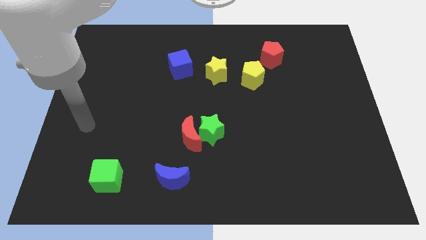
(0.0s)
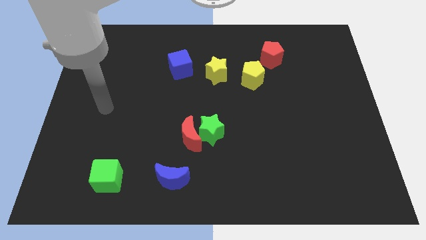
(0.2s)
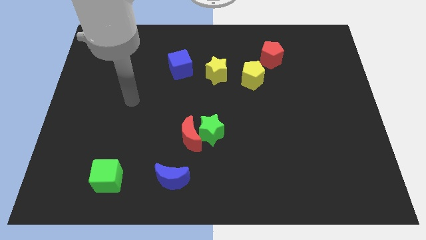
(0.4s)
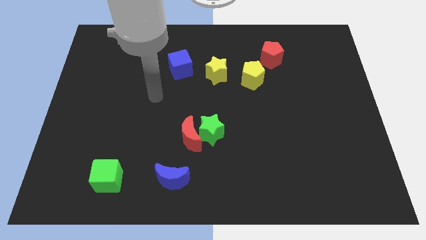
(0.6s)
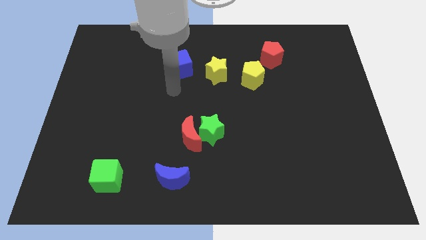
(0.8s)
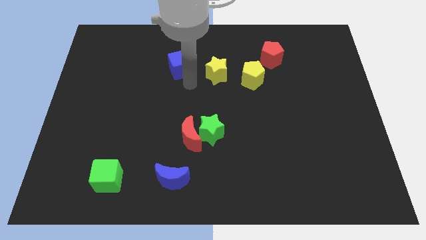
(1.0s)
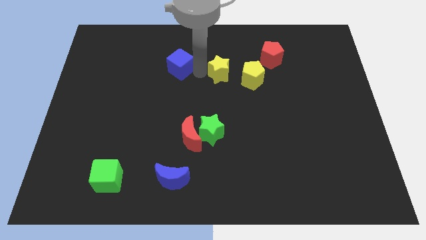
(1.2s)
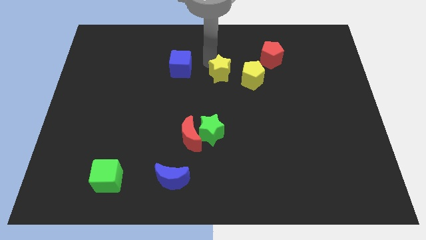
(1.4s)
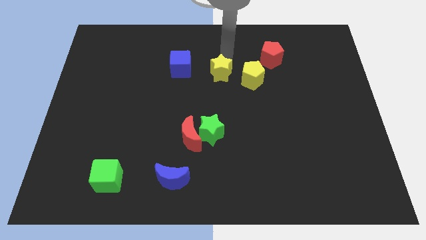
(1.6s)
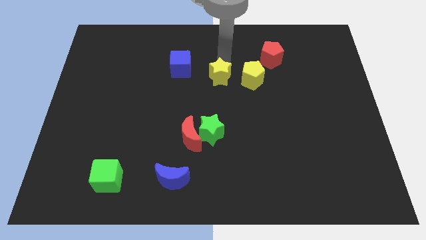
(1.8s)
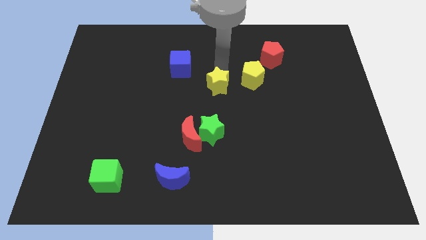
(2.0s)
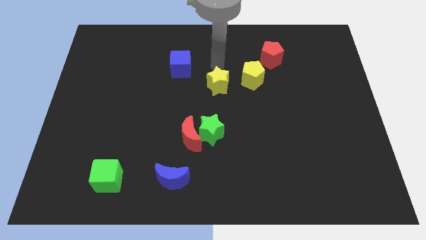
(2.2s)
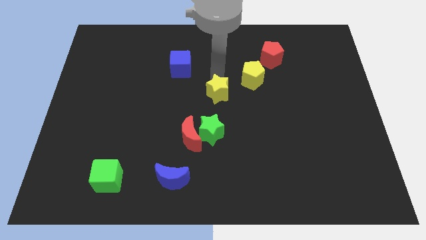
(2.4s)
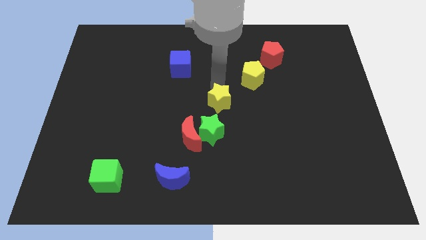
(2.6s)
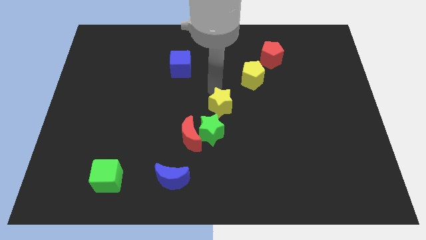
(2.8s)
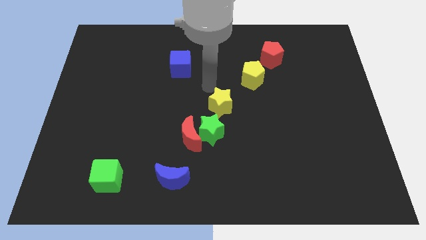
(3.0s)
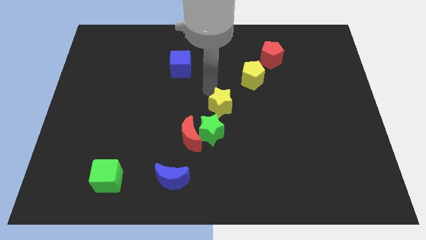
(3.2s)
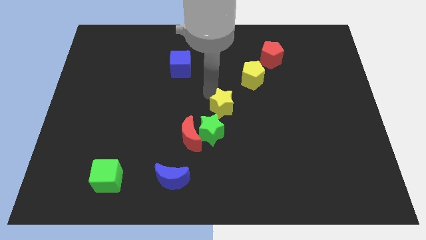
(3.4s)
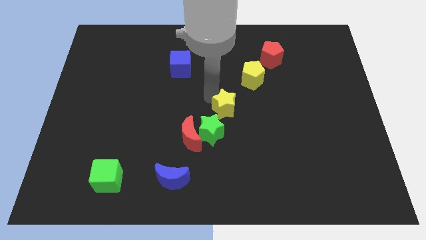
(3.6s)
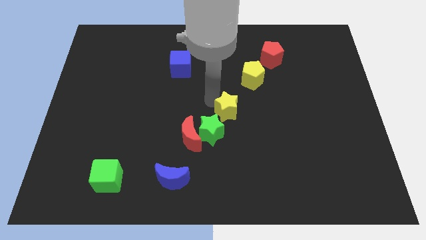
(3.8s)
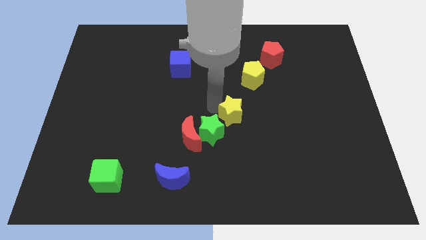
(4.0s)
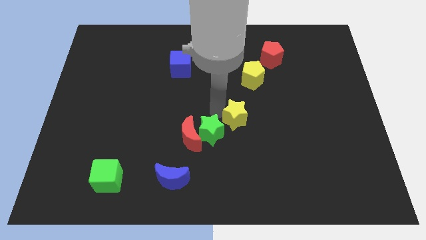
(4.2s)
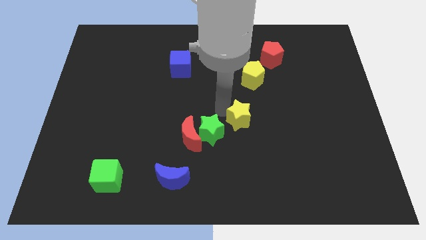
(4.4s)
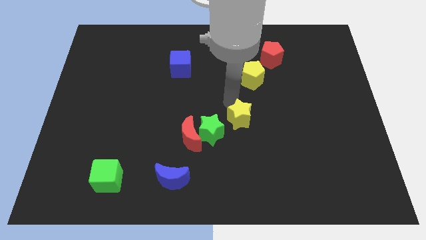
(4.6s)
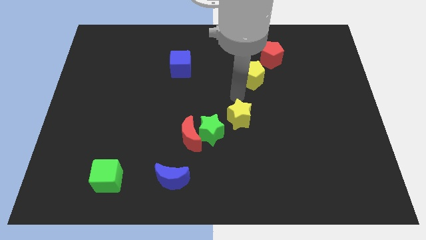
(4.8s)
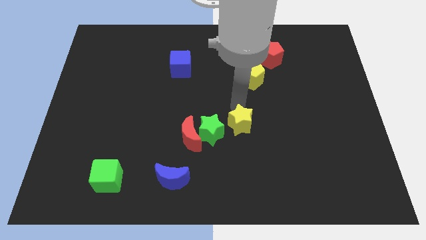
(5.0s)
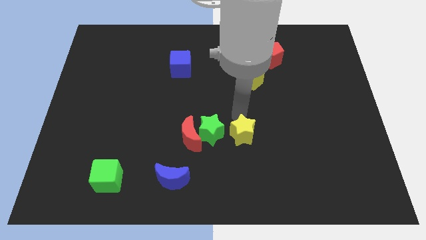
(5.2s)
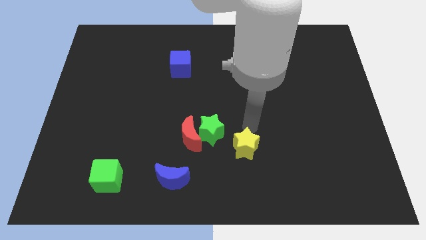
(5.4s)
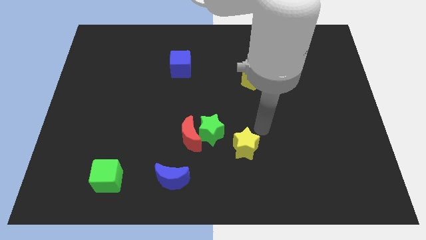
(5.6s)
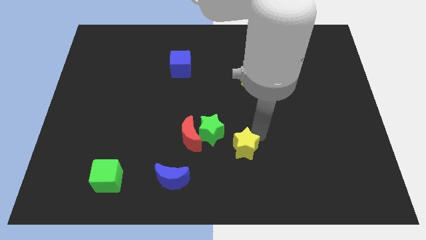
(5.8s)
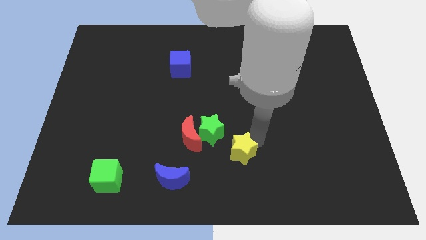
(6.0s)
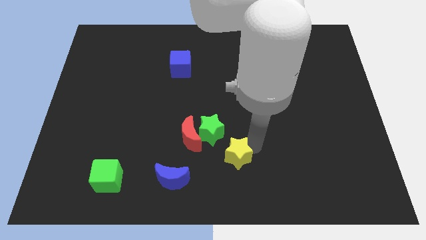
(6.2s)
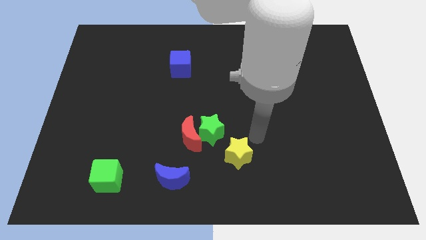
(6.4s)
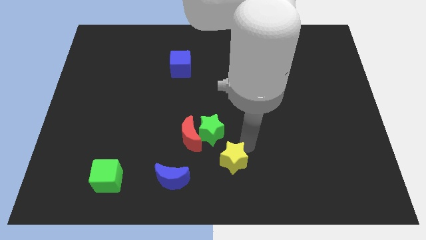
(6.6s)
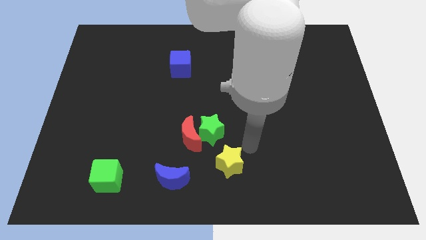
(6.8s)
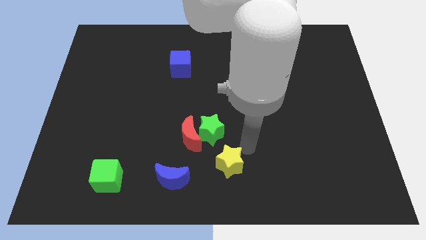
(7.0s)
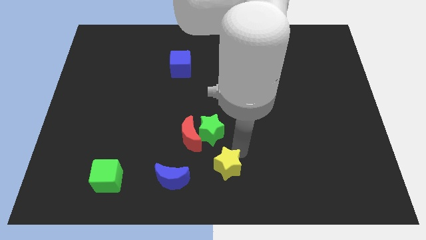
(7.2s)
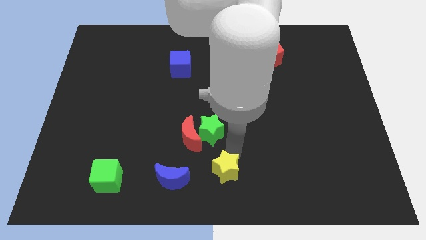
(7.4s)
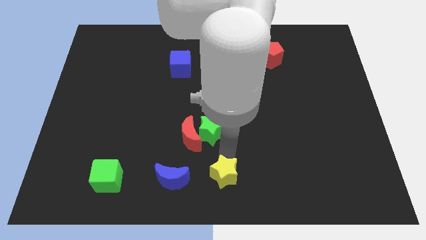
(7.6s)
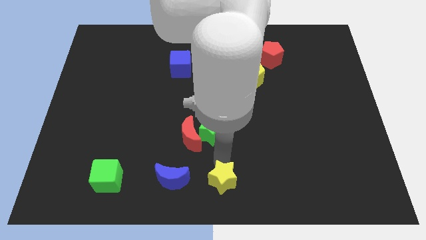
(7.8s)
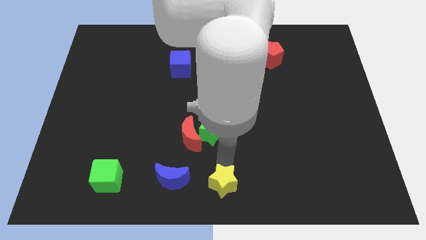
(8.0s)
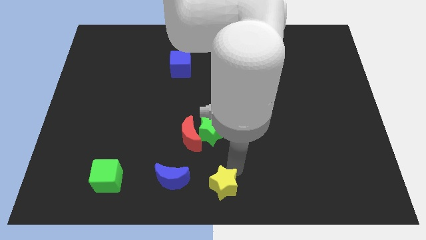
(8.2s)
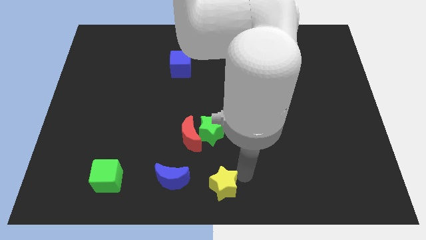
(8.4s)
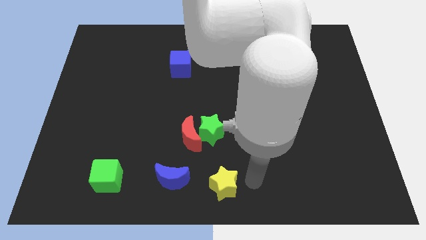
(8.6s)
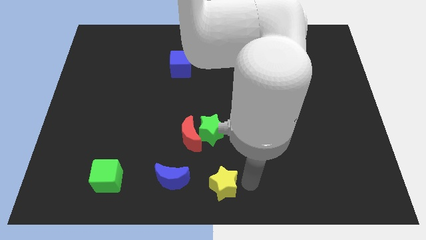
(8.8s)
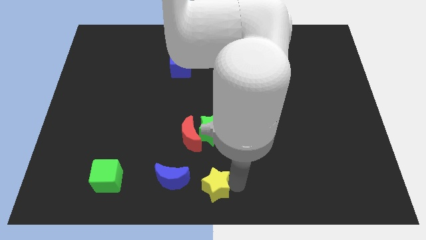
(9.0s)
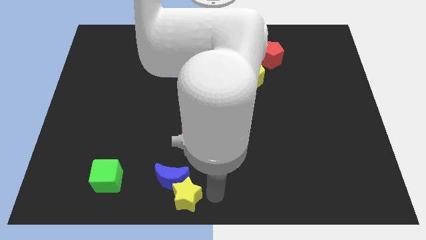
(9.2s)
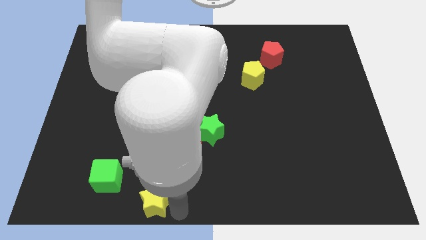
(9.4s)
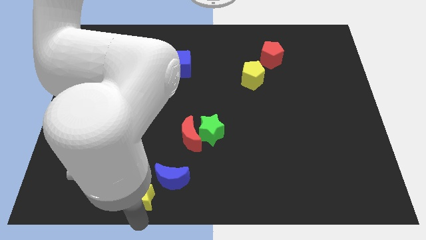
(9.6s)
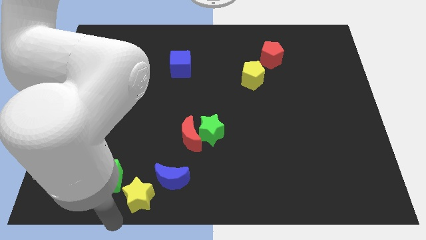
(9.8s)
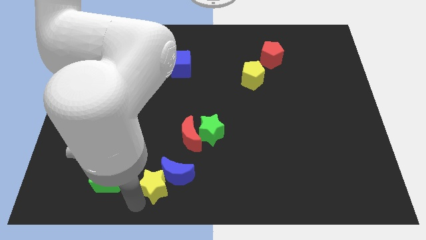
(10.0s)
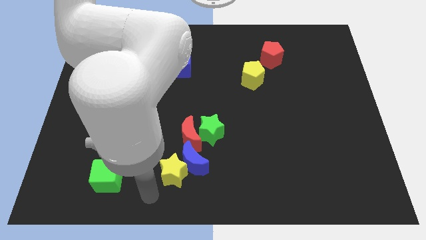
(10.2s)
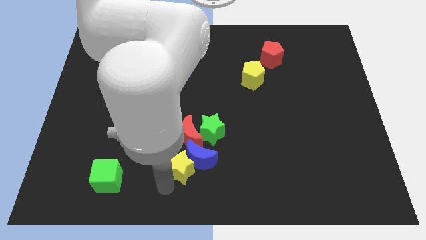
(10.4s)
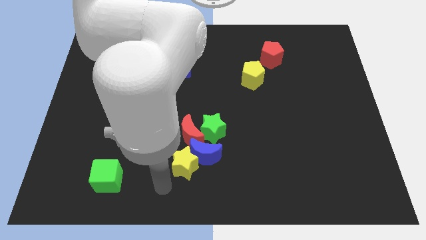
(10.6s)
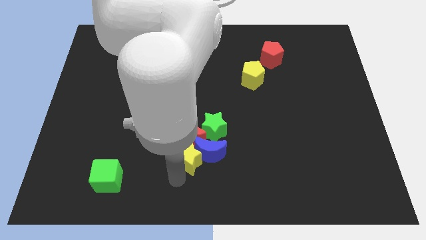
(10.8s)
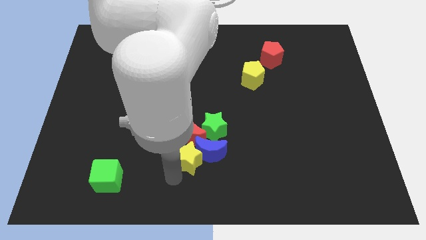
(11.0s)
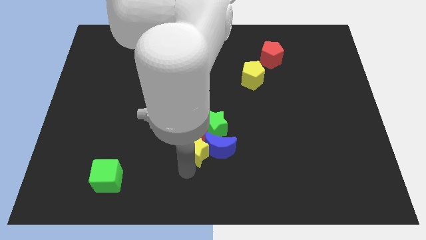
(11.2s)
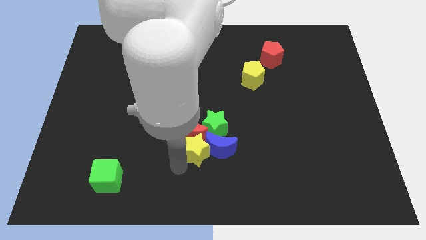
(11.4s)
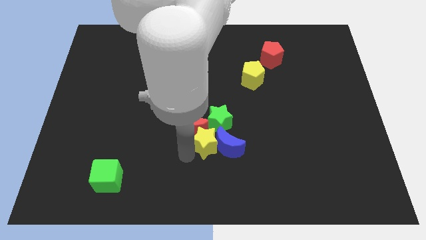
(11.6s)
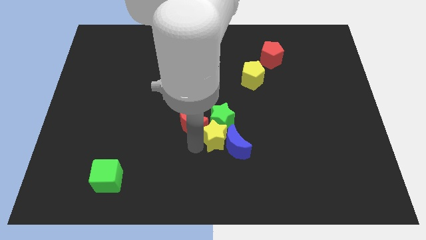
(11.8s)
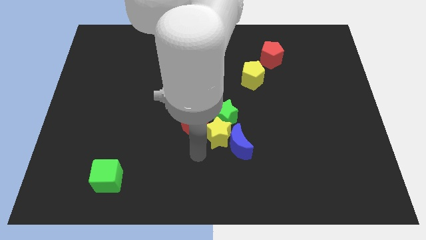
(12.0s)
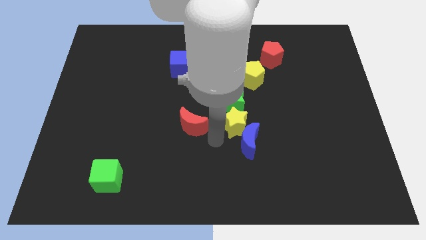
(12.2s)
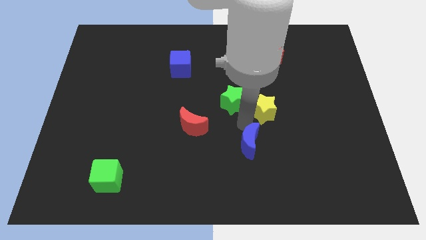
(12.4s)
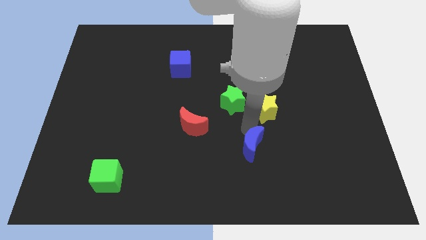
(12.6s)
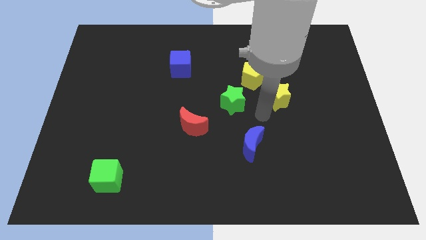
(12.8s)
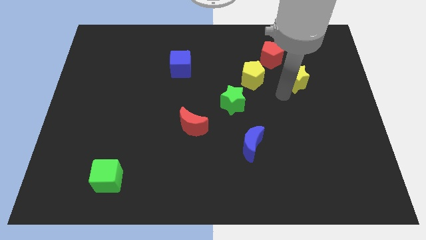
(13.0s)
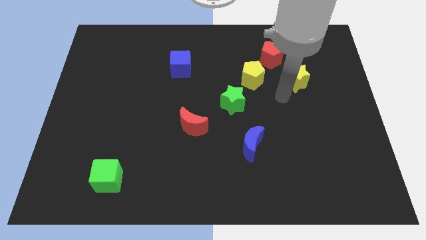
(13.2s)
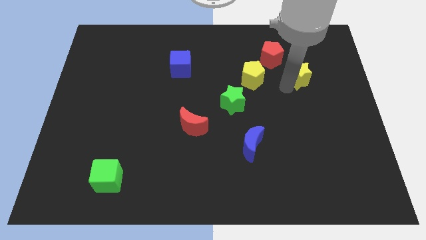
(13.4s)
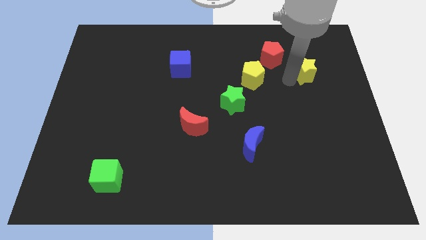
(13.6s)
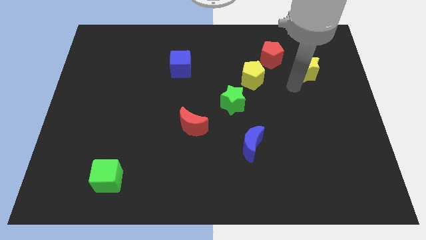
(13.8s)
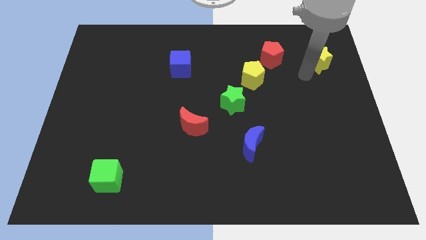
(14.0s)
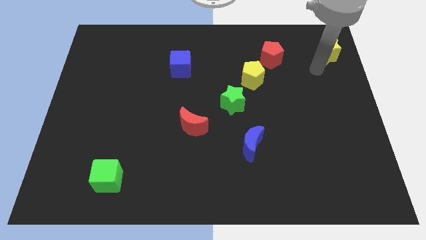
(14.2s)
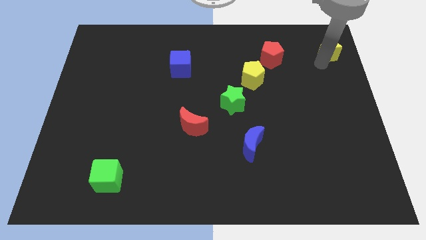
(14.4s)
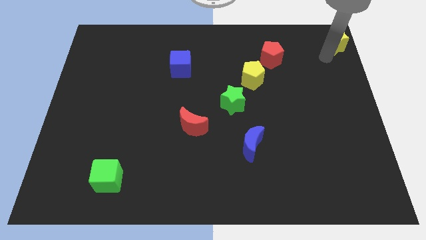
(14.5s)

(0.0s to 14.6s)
push the yellow star to the top right of the board
